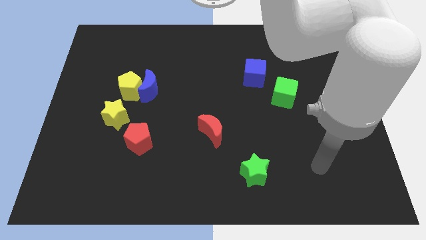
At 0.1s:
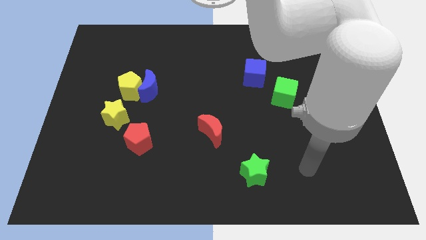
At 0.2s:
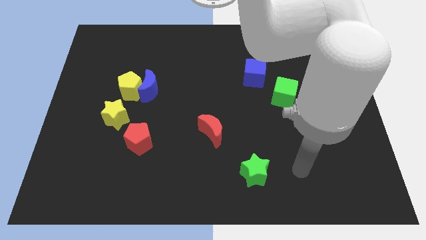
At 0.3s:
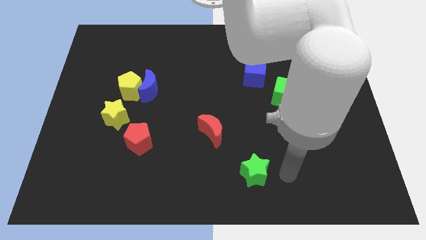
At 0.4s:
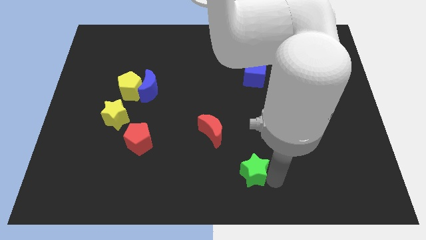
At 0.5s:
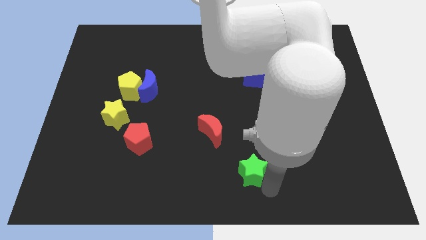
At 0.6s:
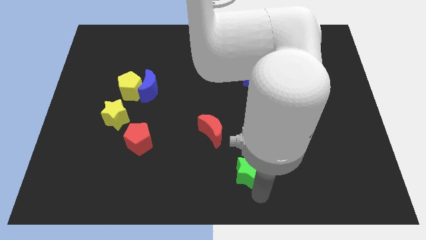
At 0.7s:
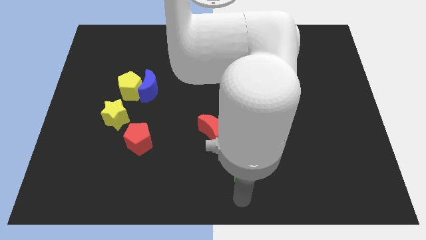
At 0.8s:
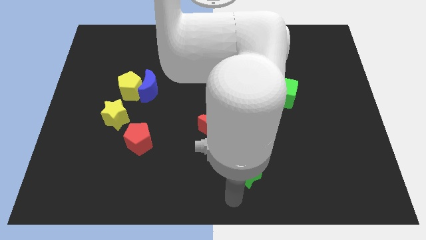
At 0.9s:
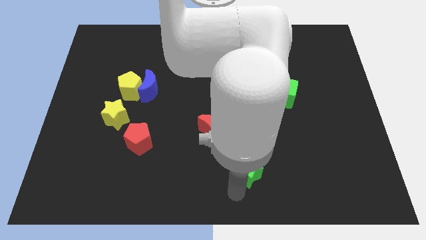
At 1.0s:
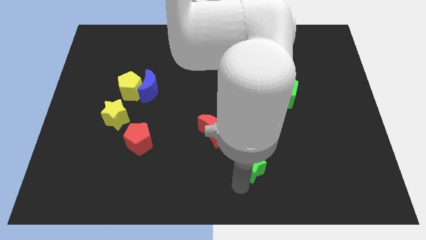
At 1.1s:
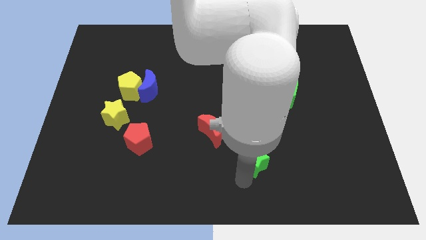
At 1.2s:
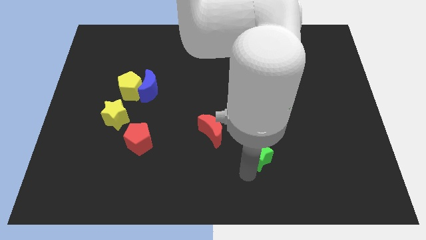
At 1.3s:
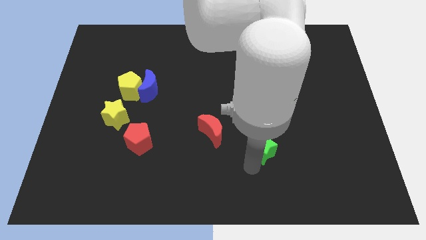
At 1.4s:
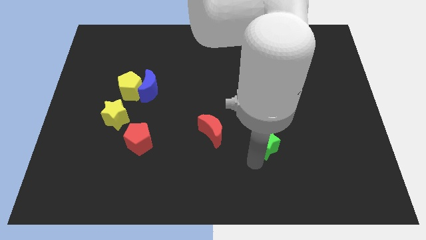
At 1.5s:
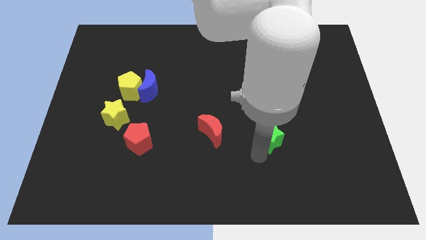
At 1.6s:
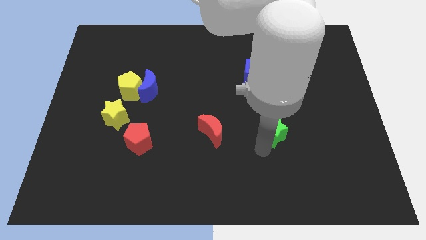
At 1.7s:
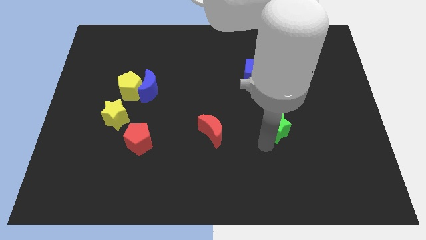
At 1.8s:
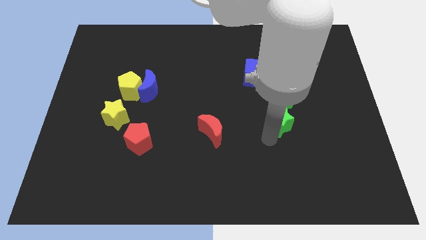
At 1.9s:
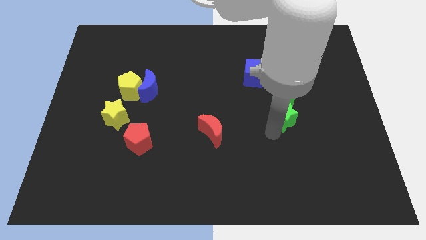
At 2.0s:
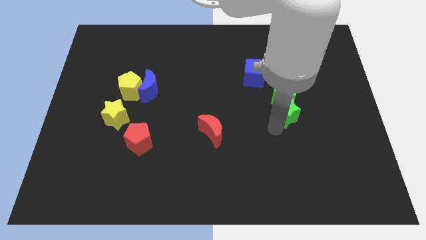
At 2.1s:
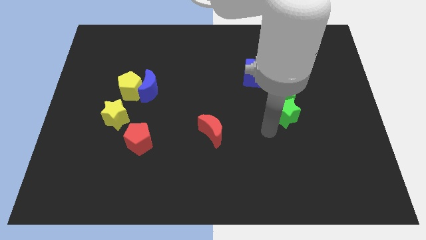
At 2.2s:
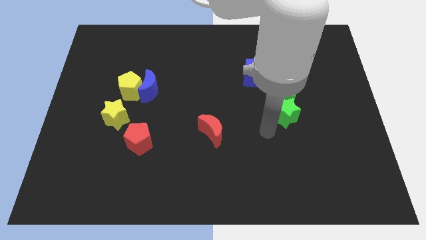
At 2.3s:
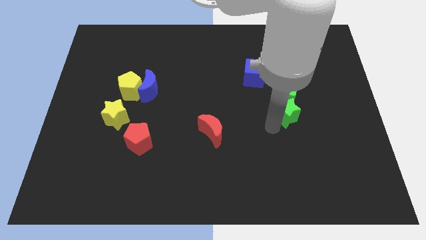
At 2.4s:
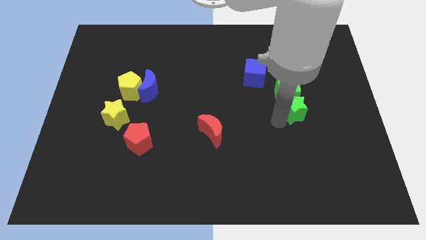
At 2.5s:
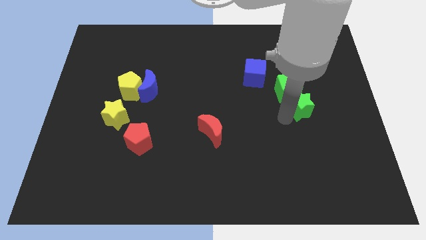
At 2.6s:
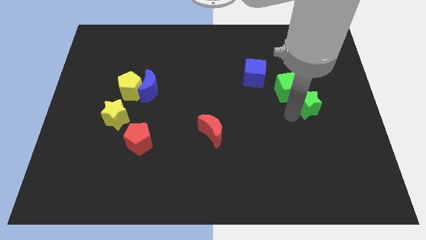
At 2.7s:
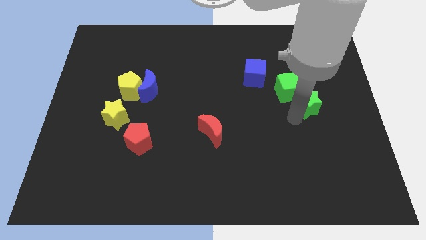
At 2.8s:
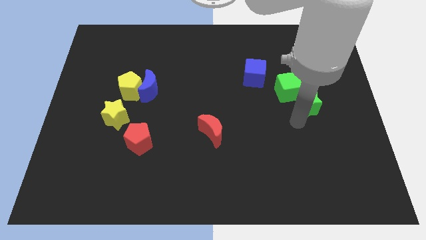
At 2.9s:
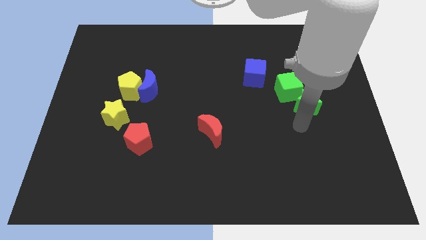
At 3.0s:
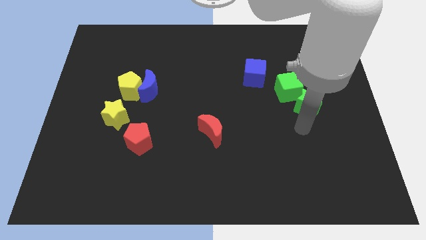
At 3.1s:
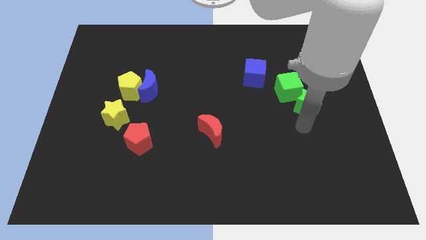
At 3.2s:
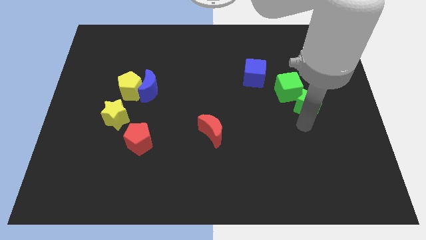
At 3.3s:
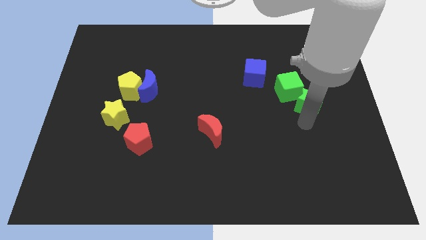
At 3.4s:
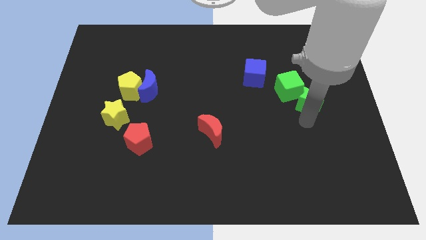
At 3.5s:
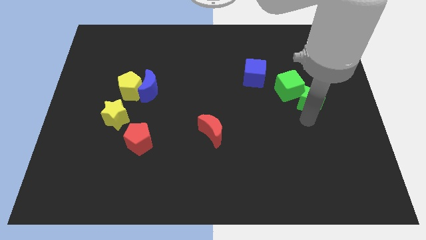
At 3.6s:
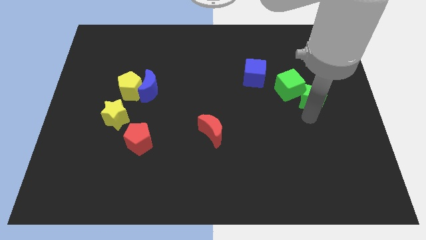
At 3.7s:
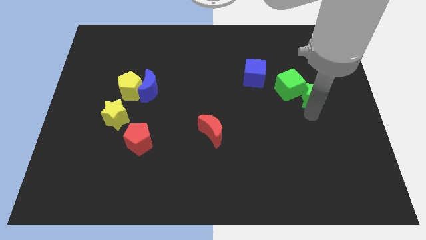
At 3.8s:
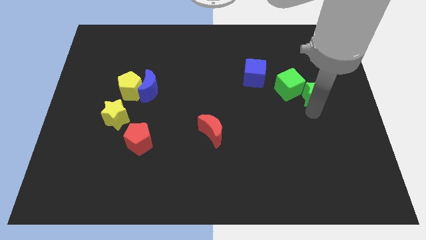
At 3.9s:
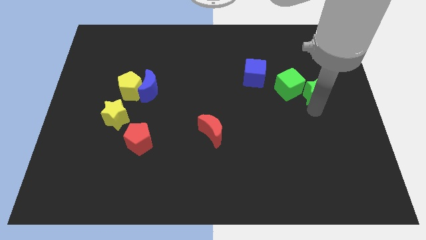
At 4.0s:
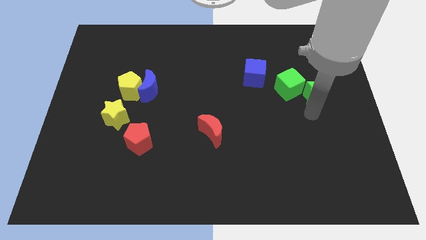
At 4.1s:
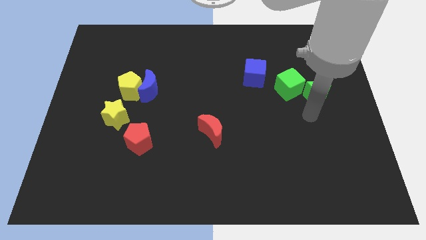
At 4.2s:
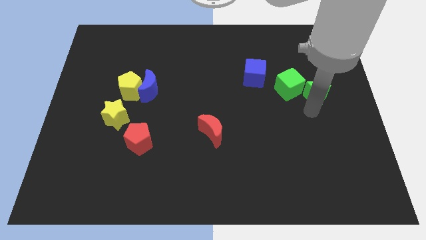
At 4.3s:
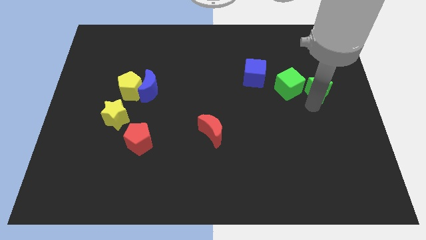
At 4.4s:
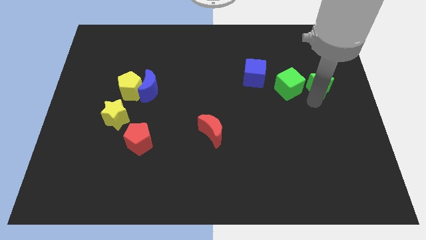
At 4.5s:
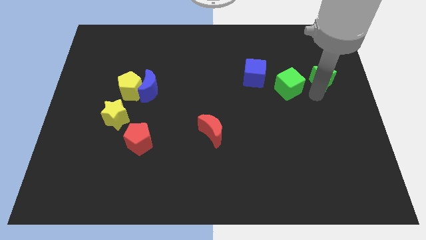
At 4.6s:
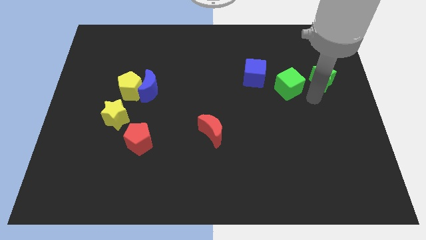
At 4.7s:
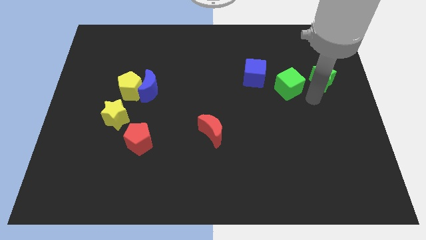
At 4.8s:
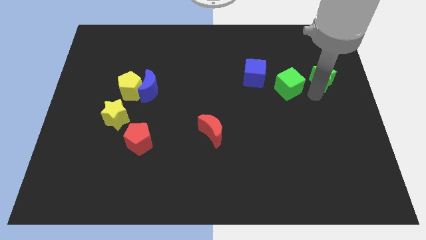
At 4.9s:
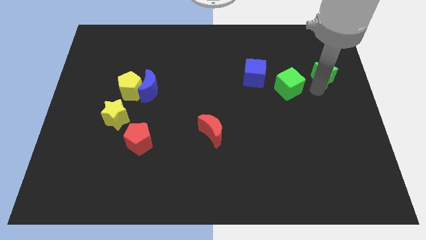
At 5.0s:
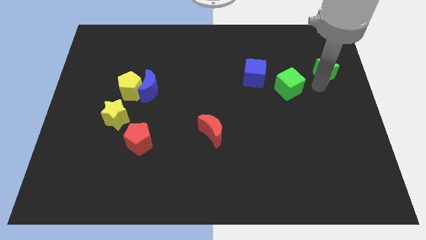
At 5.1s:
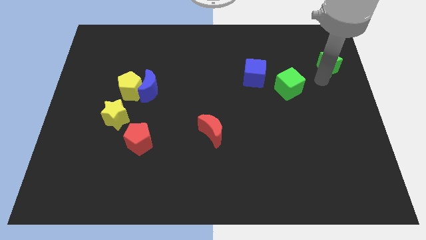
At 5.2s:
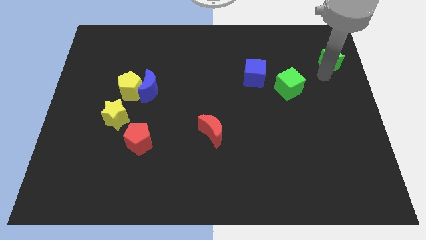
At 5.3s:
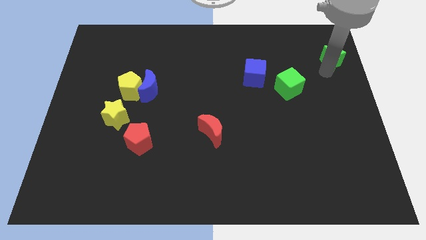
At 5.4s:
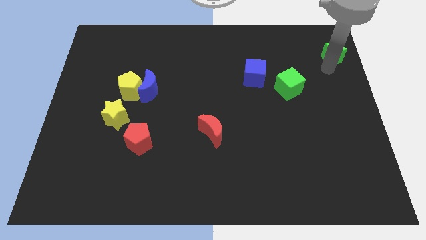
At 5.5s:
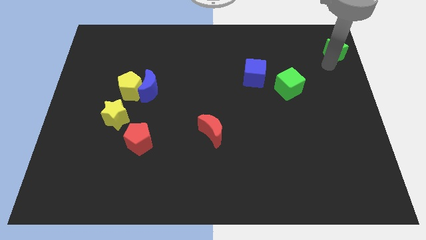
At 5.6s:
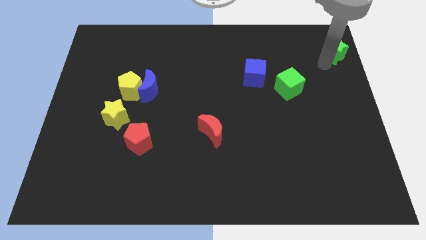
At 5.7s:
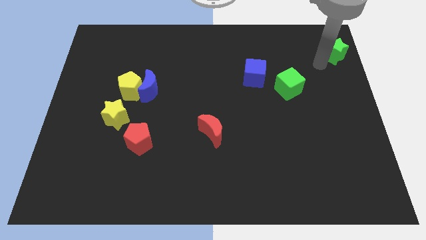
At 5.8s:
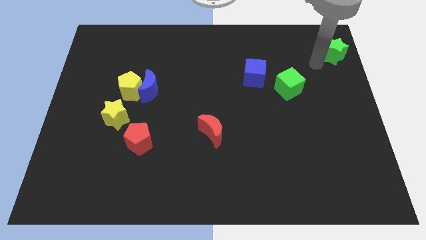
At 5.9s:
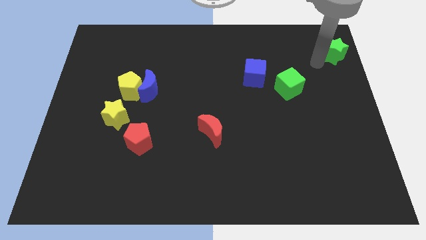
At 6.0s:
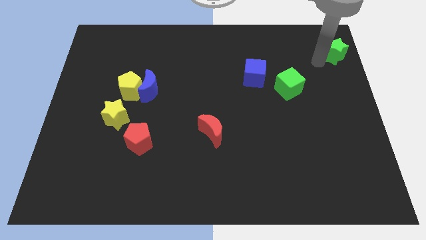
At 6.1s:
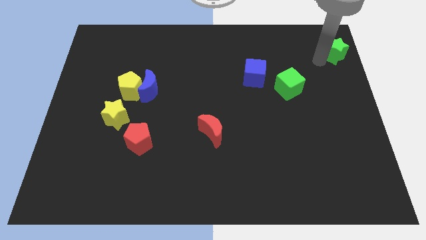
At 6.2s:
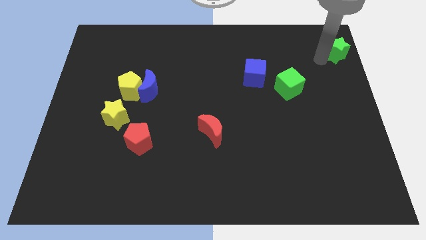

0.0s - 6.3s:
push the green star to the top right

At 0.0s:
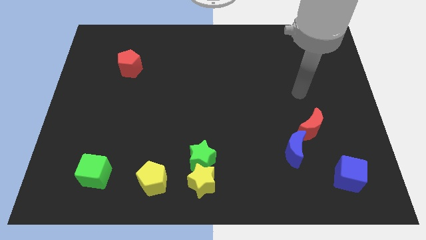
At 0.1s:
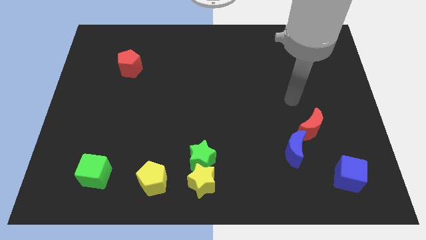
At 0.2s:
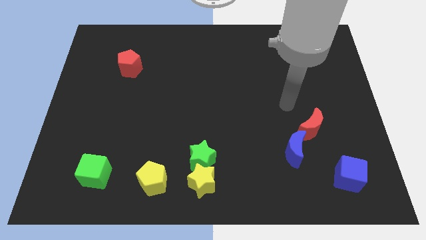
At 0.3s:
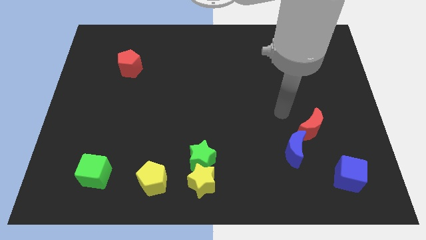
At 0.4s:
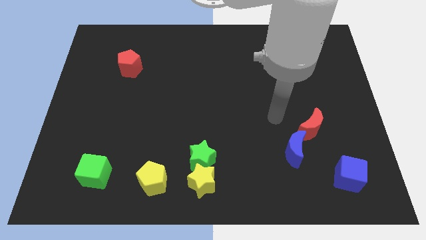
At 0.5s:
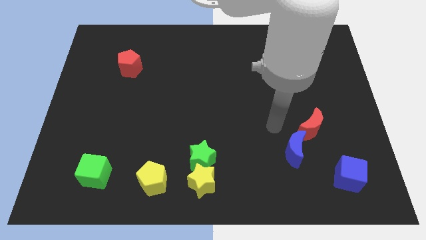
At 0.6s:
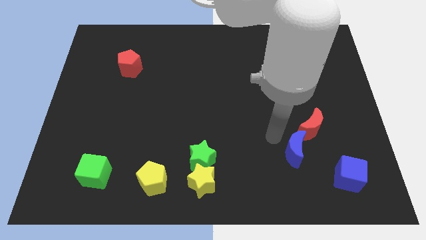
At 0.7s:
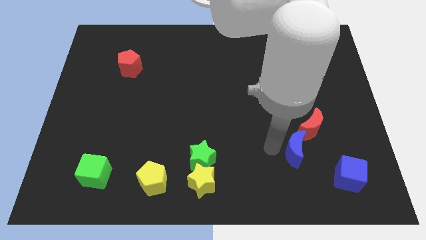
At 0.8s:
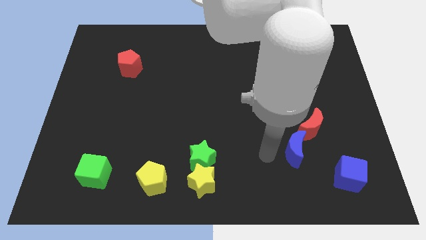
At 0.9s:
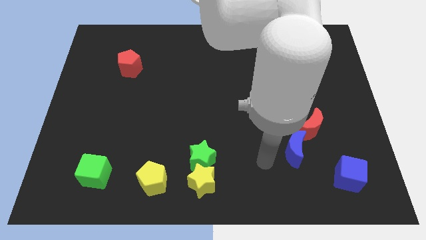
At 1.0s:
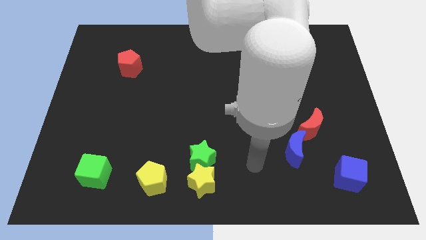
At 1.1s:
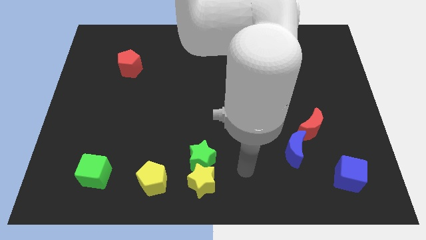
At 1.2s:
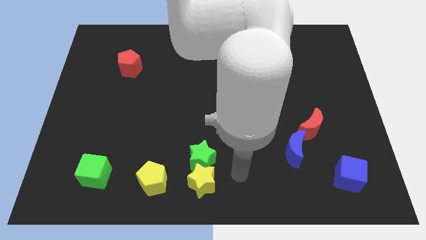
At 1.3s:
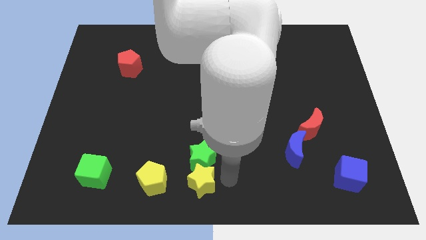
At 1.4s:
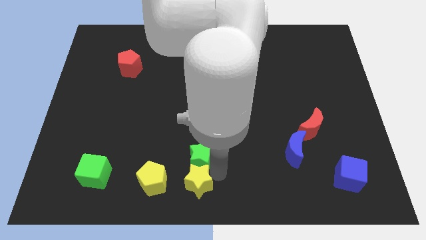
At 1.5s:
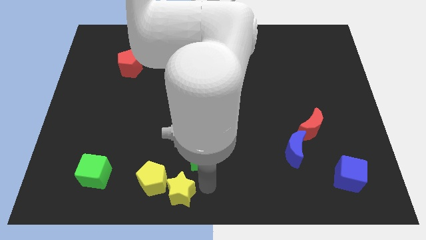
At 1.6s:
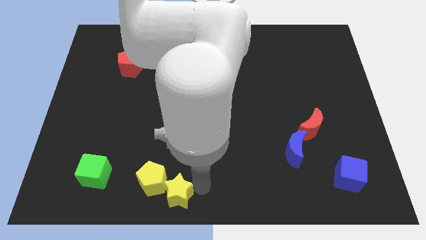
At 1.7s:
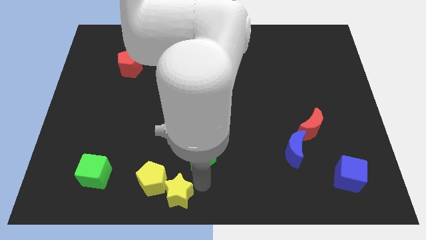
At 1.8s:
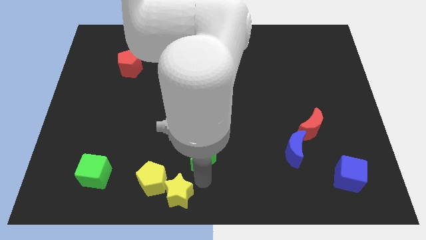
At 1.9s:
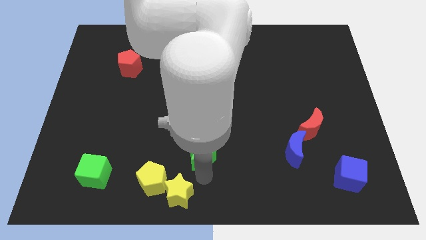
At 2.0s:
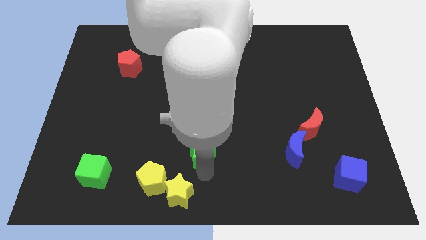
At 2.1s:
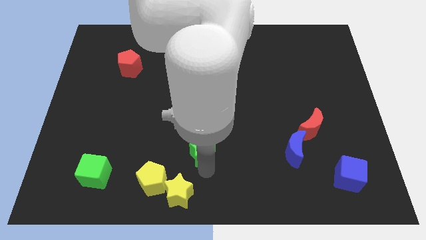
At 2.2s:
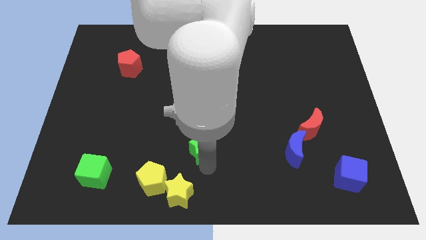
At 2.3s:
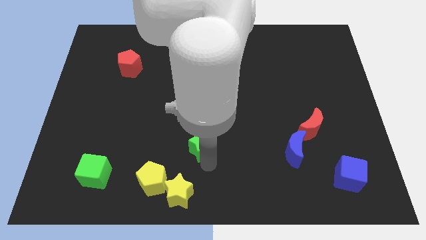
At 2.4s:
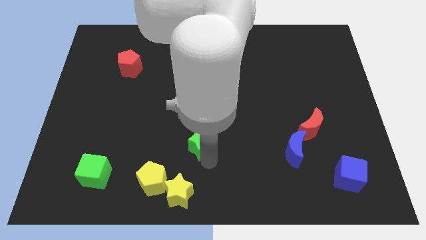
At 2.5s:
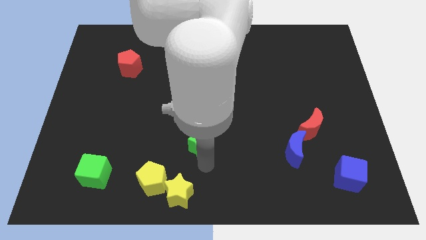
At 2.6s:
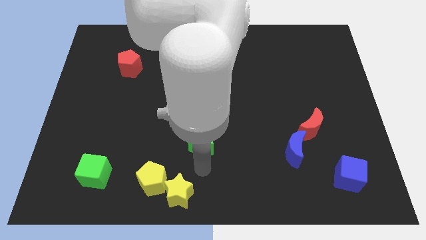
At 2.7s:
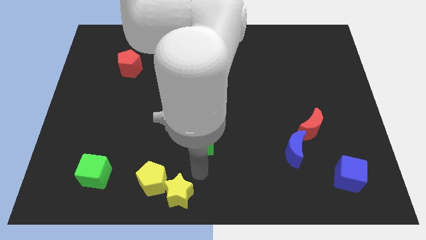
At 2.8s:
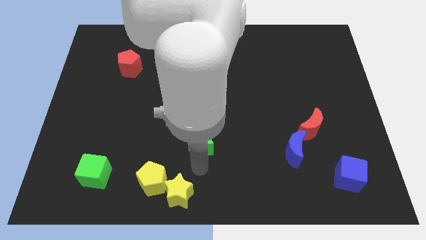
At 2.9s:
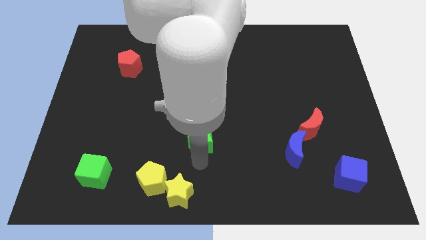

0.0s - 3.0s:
put the green star to the middle
